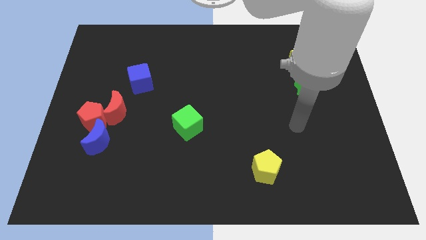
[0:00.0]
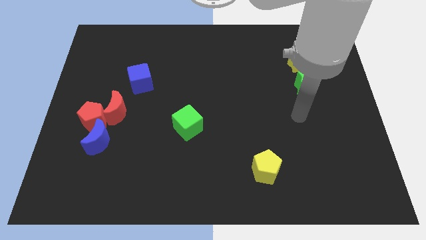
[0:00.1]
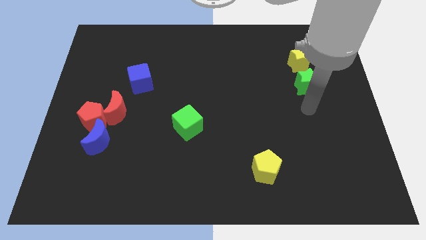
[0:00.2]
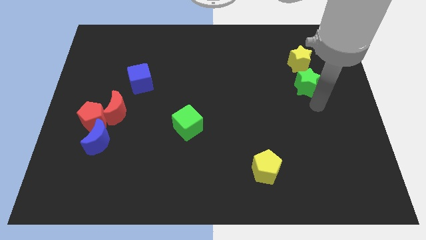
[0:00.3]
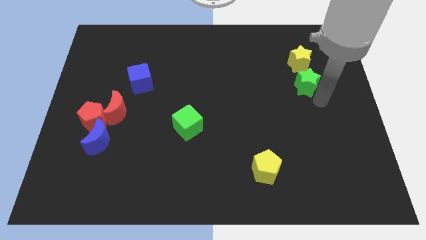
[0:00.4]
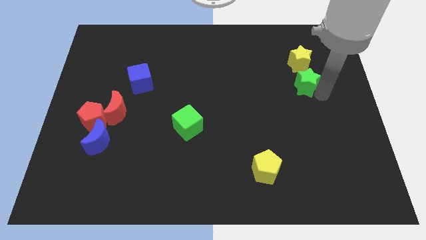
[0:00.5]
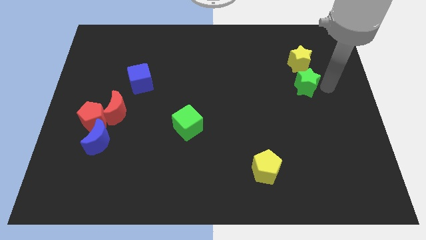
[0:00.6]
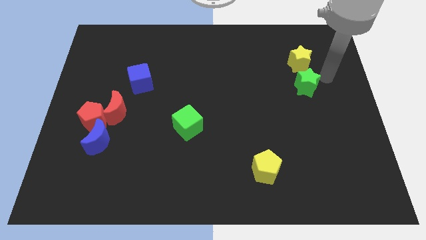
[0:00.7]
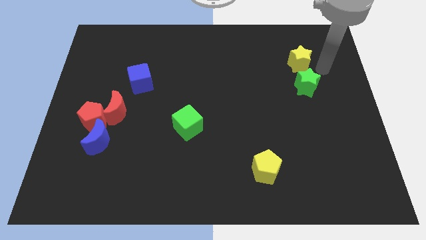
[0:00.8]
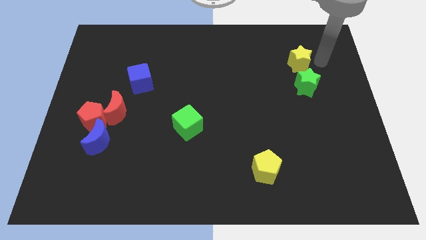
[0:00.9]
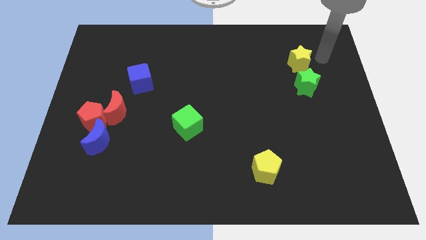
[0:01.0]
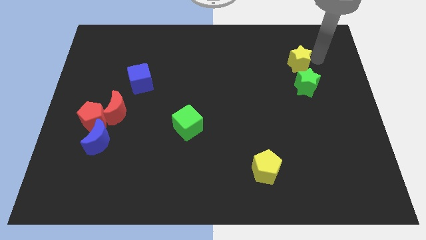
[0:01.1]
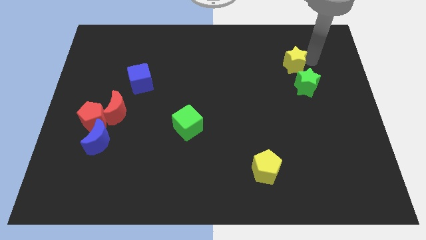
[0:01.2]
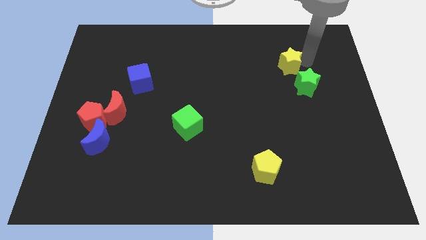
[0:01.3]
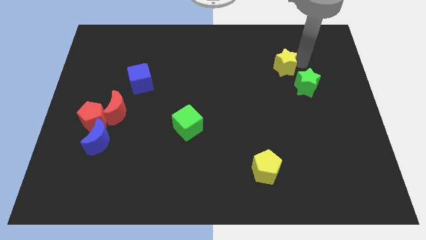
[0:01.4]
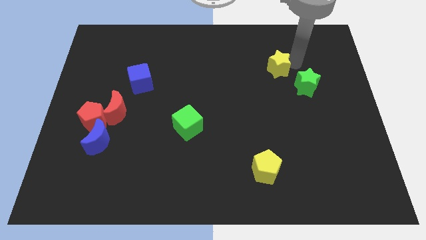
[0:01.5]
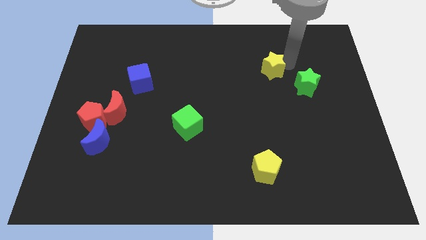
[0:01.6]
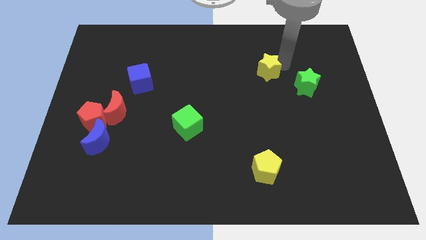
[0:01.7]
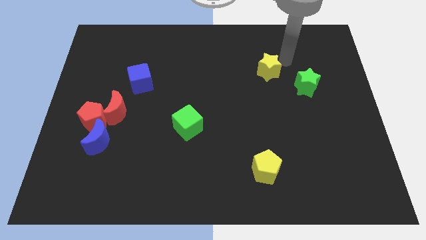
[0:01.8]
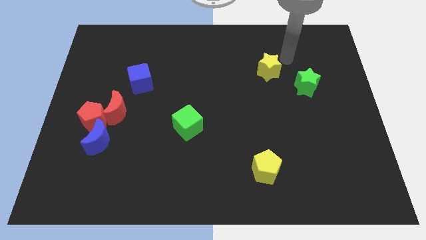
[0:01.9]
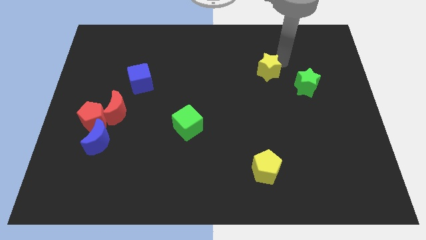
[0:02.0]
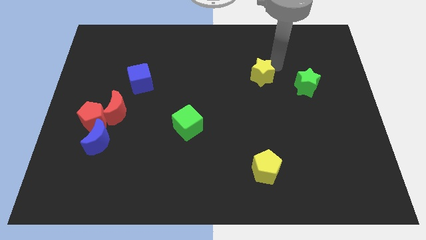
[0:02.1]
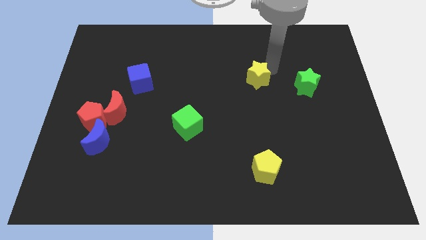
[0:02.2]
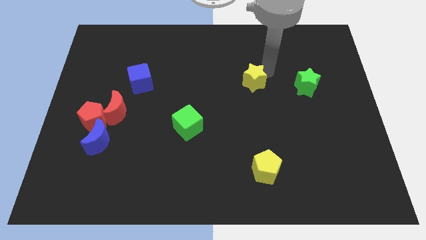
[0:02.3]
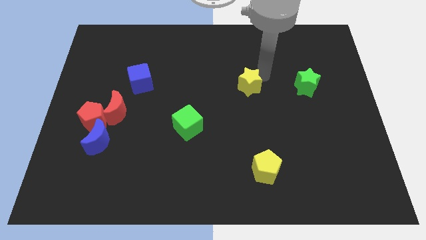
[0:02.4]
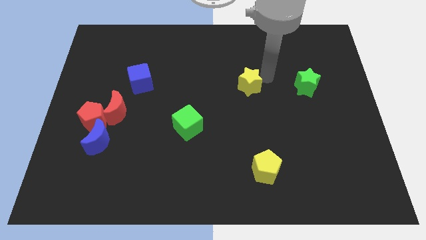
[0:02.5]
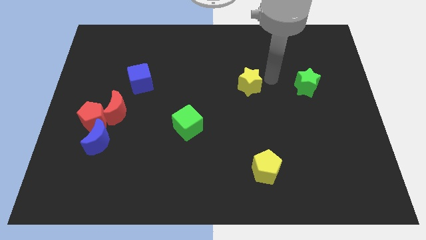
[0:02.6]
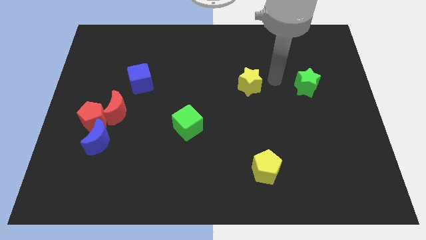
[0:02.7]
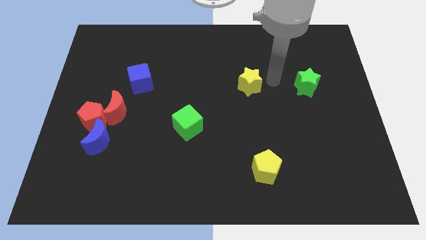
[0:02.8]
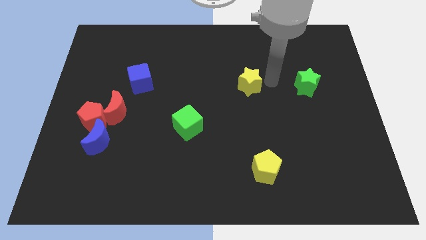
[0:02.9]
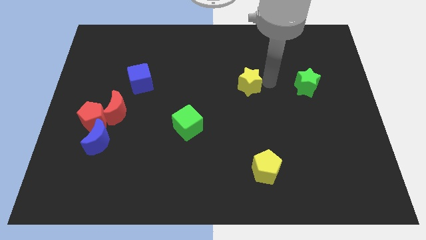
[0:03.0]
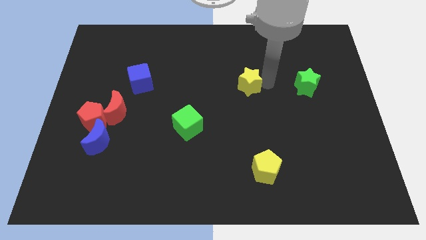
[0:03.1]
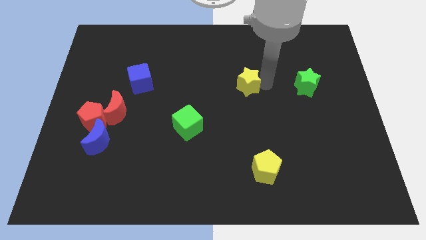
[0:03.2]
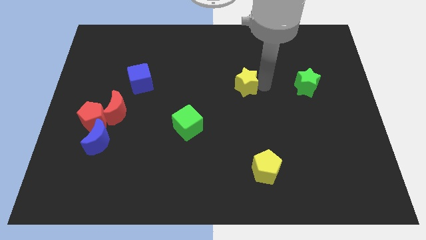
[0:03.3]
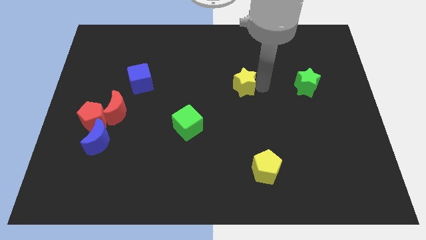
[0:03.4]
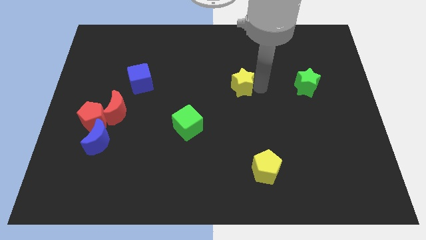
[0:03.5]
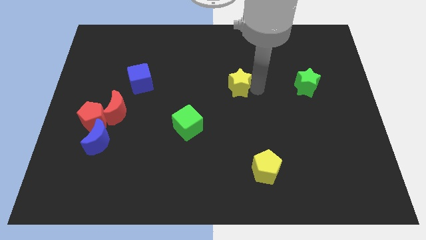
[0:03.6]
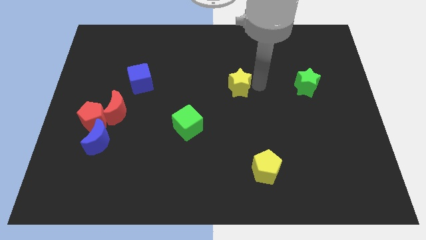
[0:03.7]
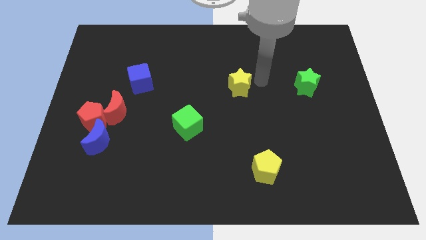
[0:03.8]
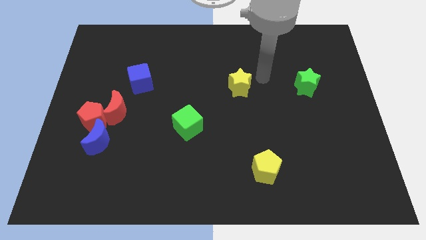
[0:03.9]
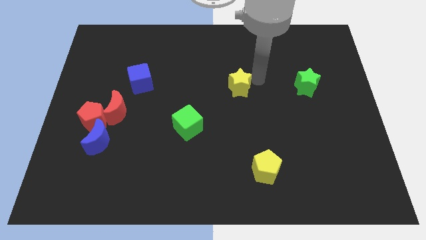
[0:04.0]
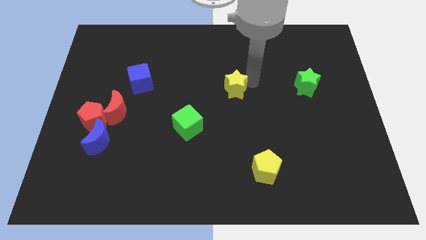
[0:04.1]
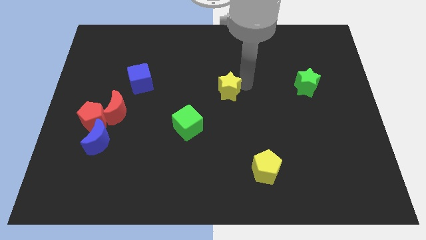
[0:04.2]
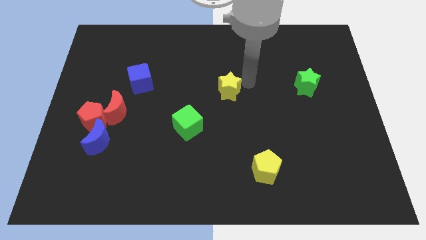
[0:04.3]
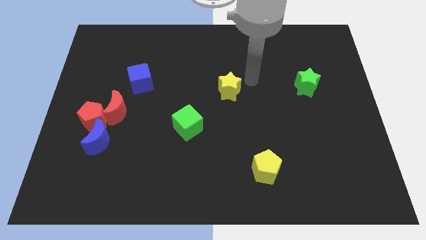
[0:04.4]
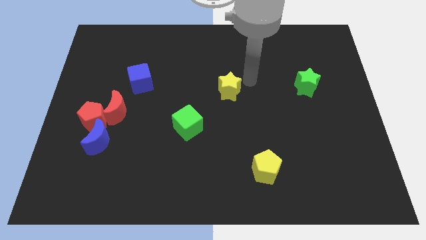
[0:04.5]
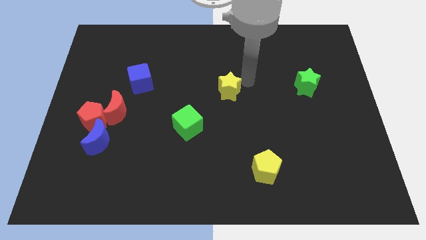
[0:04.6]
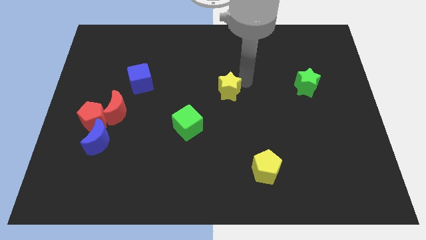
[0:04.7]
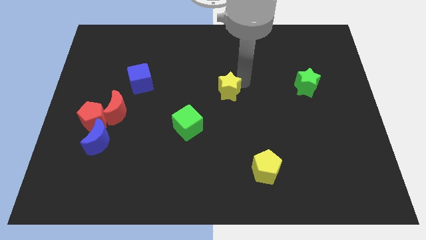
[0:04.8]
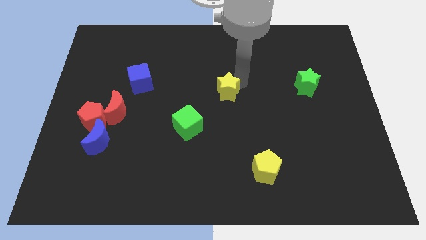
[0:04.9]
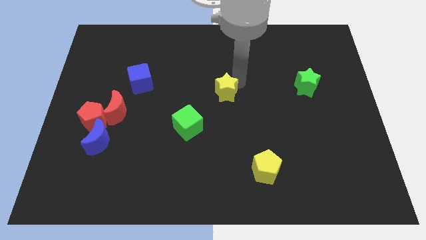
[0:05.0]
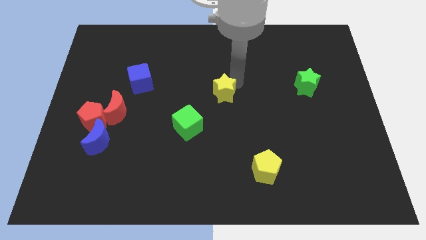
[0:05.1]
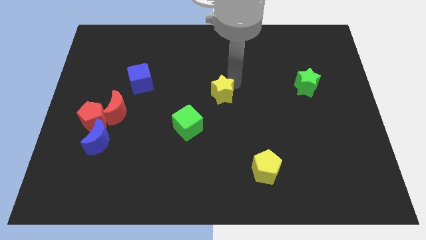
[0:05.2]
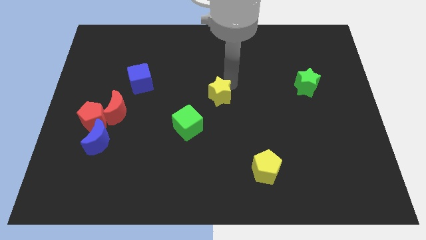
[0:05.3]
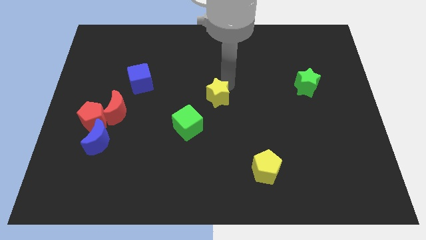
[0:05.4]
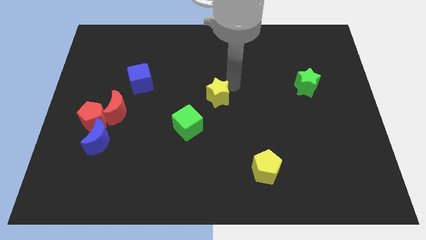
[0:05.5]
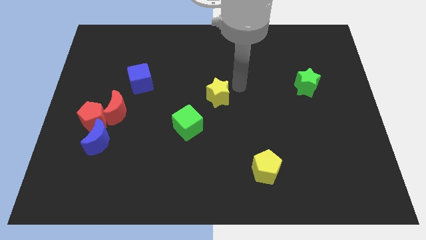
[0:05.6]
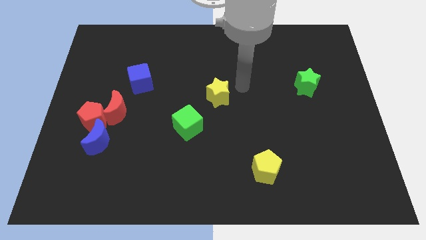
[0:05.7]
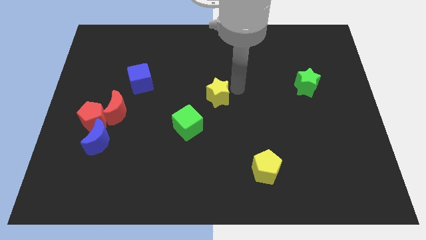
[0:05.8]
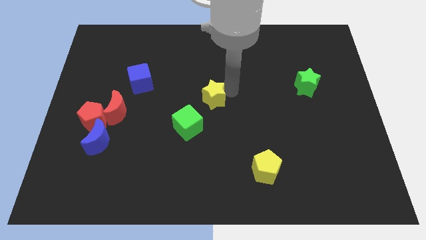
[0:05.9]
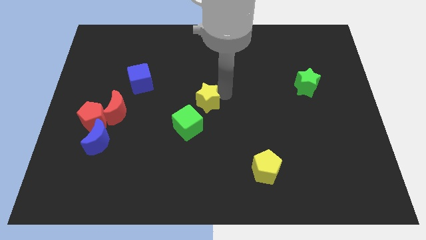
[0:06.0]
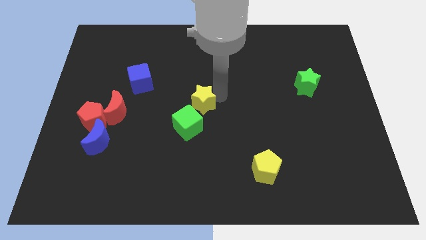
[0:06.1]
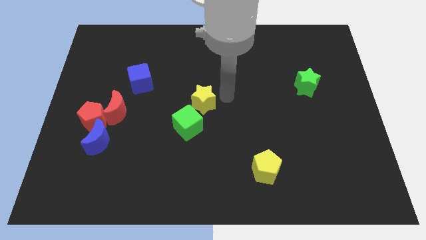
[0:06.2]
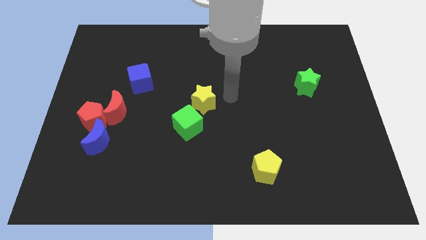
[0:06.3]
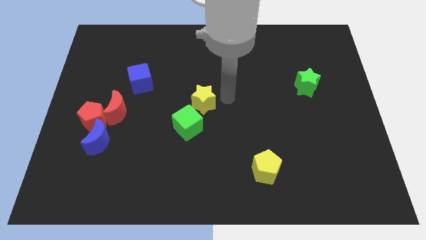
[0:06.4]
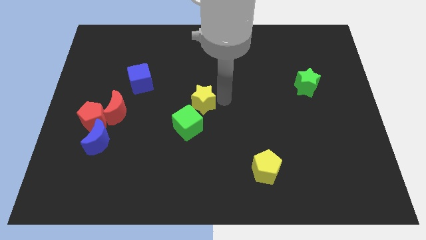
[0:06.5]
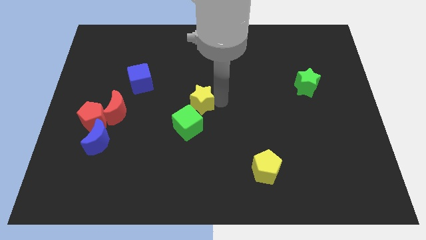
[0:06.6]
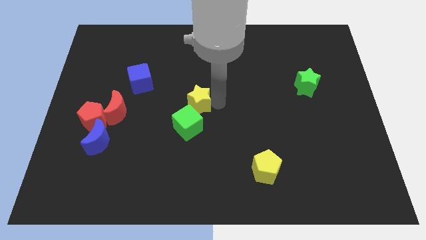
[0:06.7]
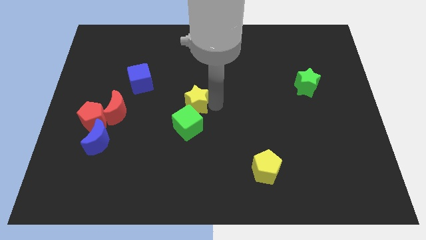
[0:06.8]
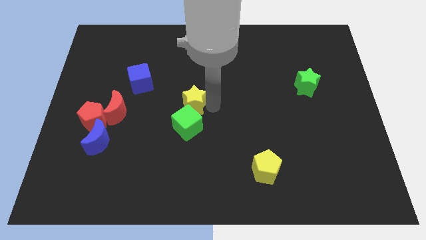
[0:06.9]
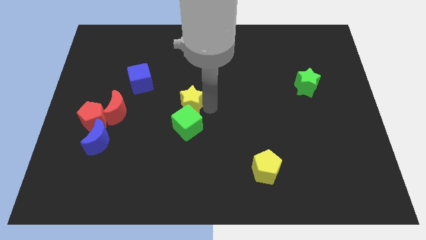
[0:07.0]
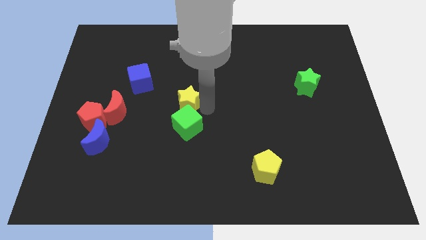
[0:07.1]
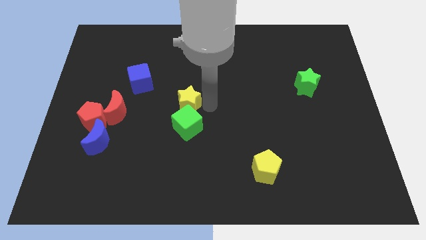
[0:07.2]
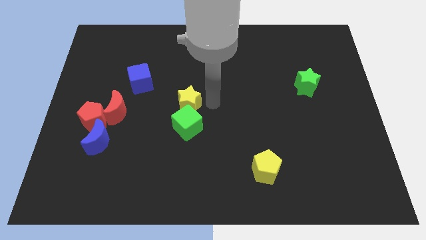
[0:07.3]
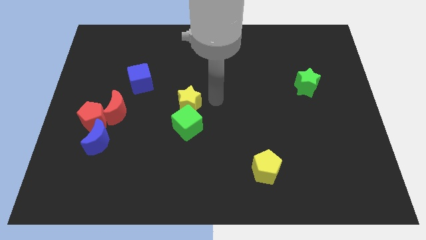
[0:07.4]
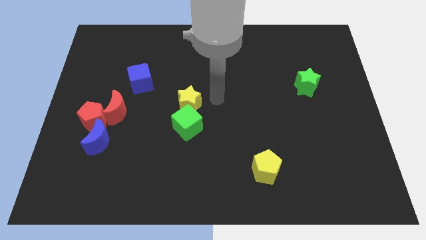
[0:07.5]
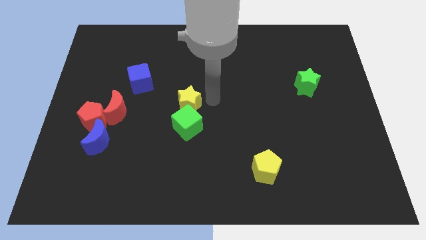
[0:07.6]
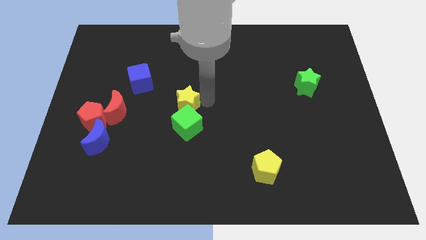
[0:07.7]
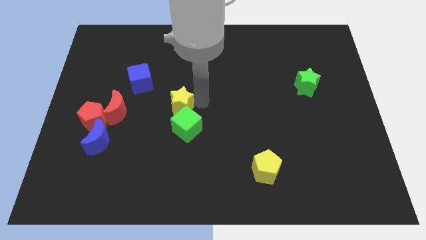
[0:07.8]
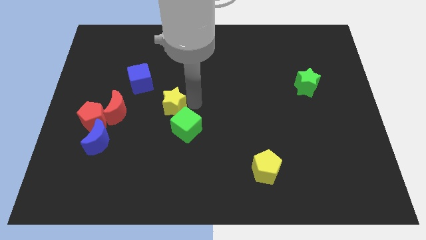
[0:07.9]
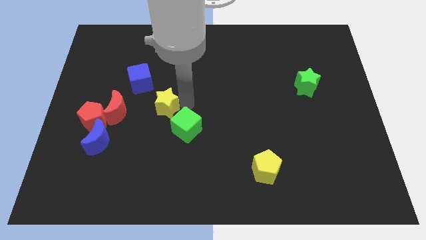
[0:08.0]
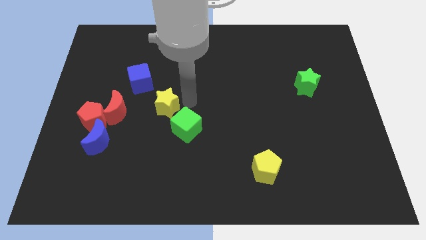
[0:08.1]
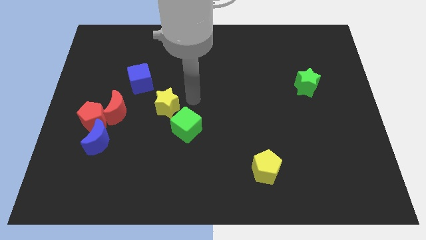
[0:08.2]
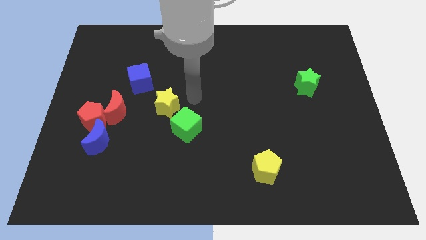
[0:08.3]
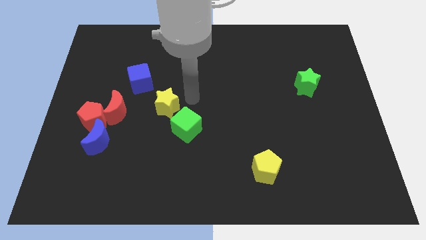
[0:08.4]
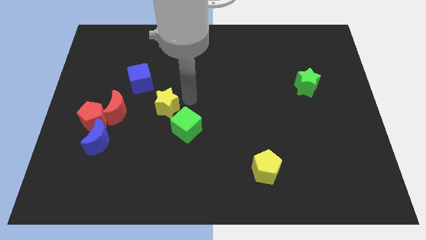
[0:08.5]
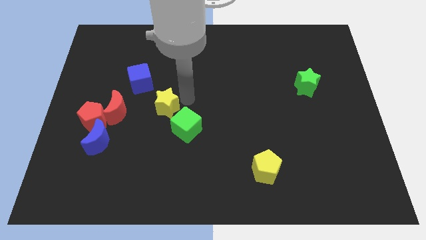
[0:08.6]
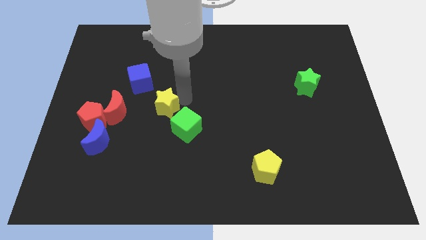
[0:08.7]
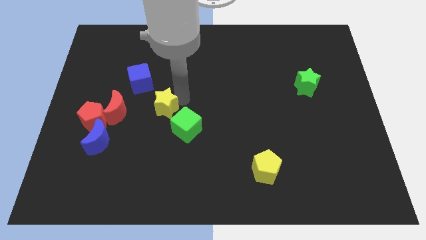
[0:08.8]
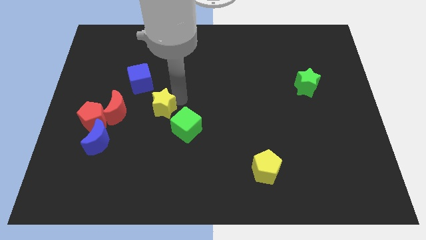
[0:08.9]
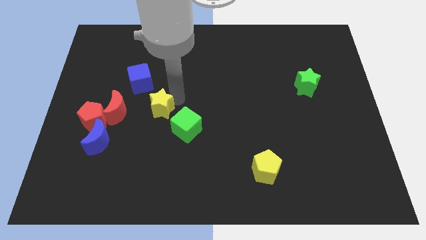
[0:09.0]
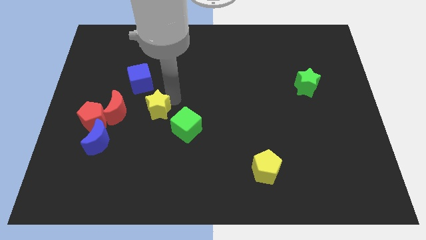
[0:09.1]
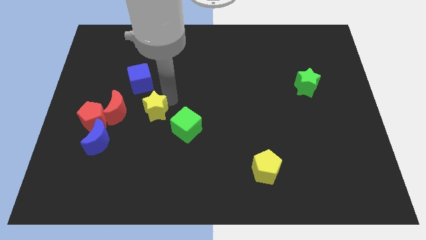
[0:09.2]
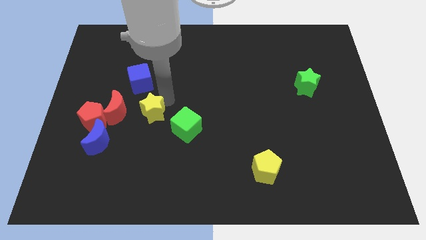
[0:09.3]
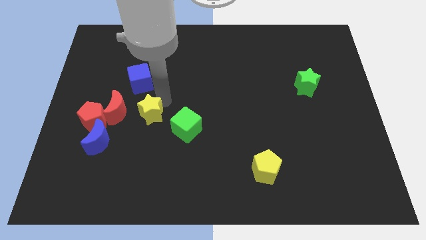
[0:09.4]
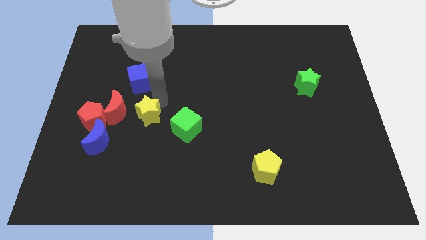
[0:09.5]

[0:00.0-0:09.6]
put the yellow star diagonally down and to the right of the red moon
